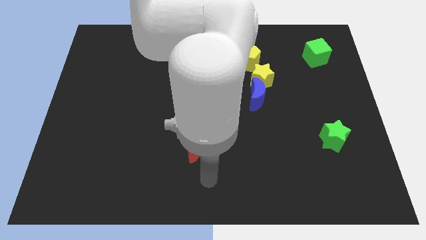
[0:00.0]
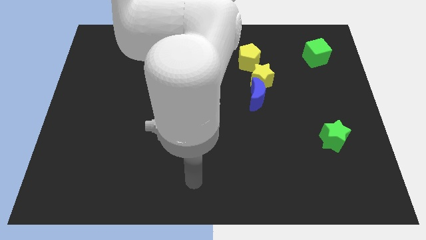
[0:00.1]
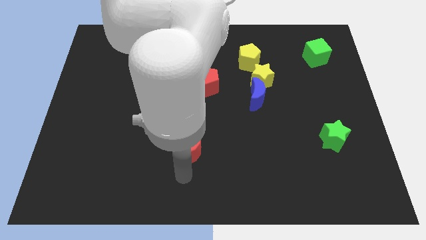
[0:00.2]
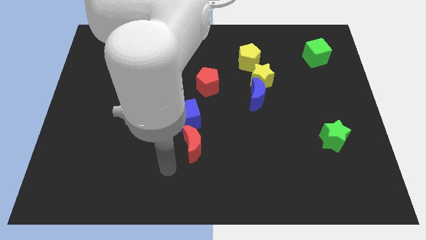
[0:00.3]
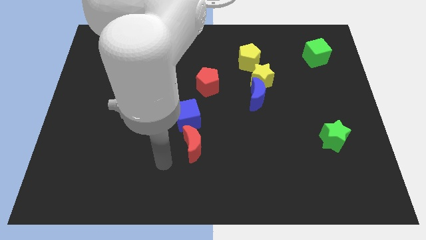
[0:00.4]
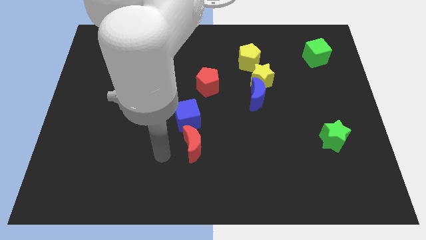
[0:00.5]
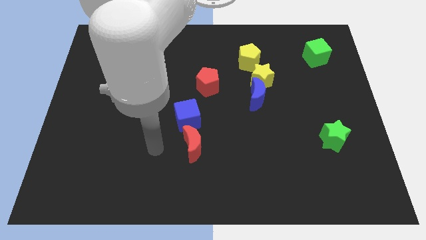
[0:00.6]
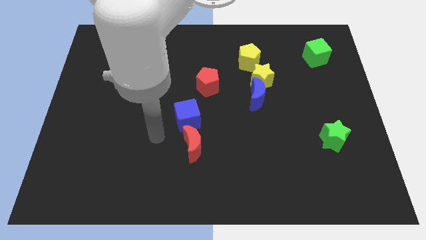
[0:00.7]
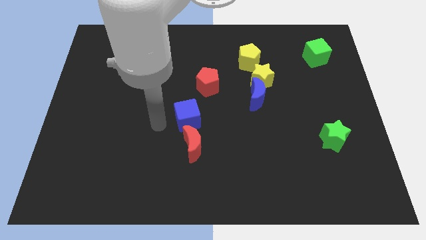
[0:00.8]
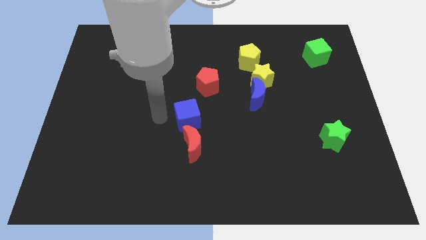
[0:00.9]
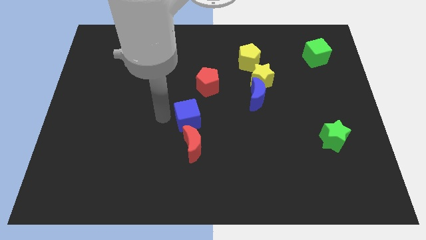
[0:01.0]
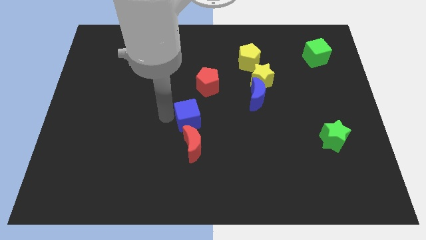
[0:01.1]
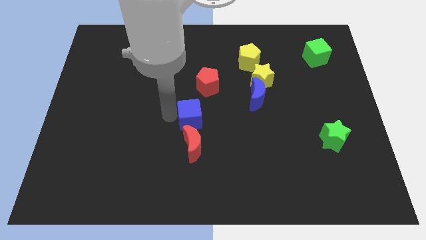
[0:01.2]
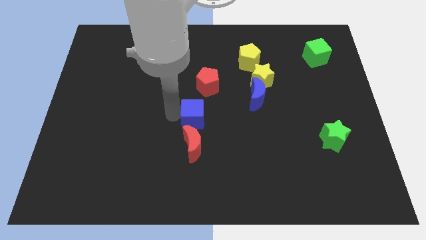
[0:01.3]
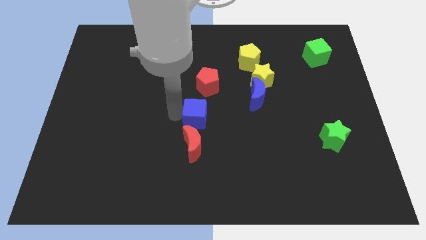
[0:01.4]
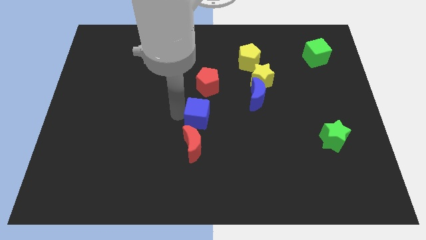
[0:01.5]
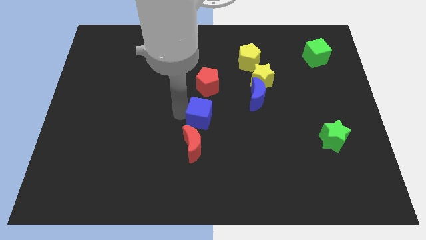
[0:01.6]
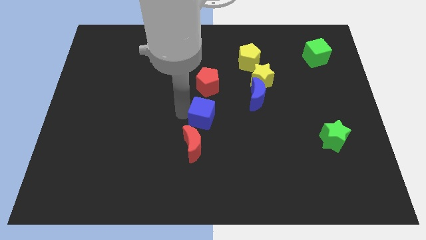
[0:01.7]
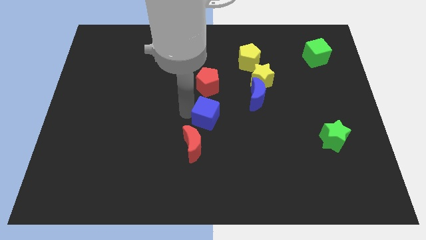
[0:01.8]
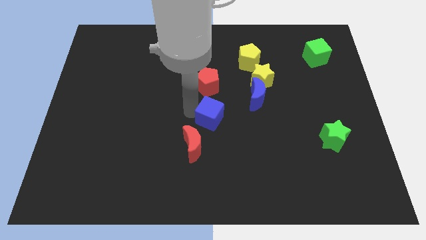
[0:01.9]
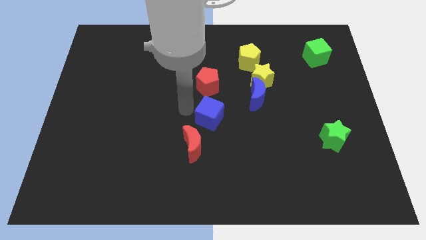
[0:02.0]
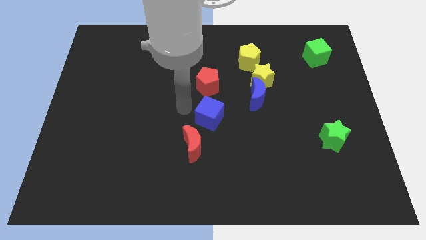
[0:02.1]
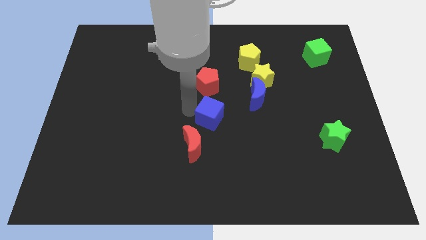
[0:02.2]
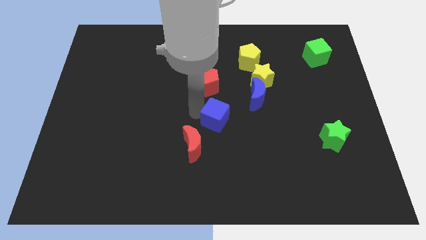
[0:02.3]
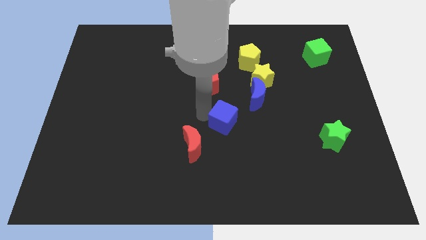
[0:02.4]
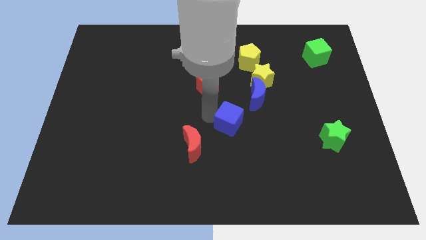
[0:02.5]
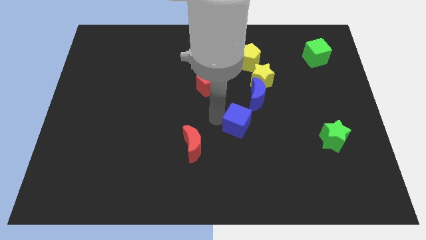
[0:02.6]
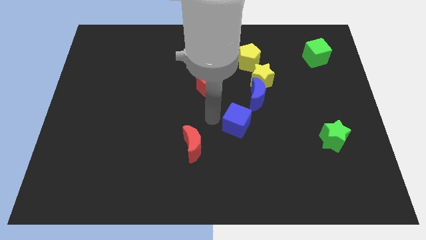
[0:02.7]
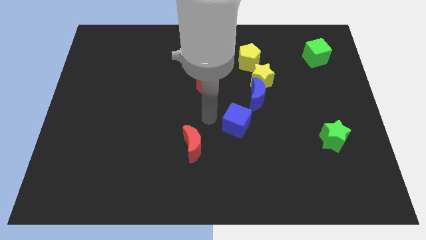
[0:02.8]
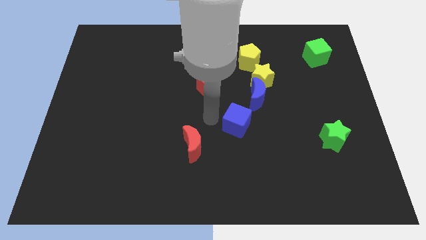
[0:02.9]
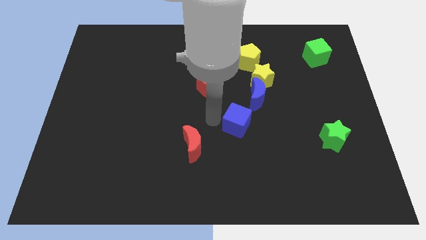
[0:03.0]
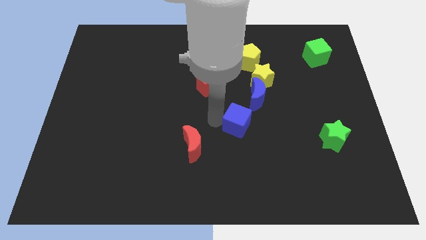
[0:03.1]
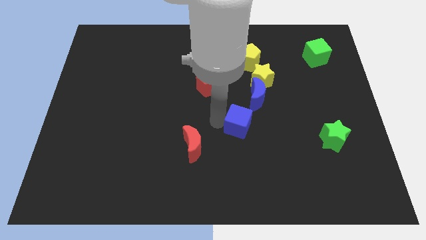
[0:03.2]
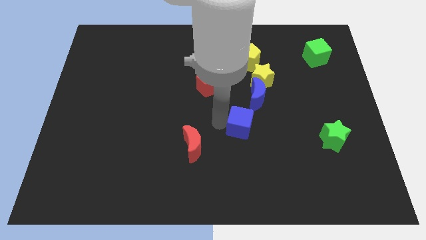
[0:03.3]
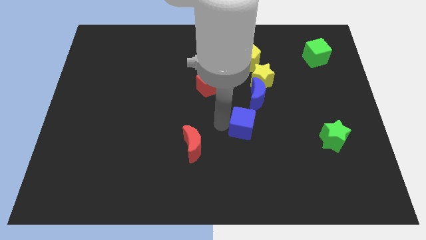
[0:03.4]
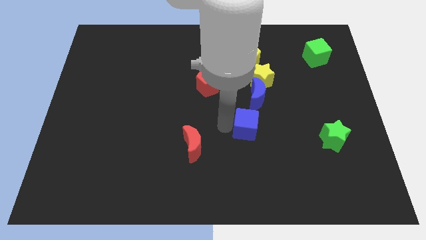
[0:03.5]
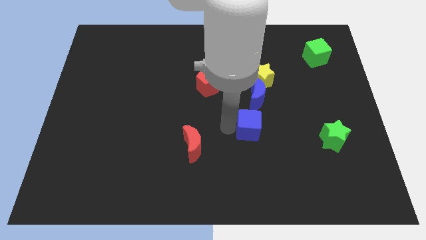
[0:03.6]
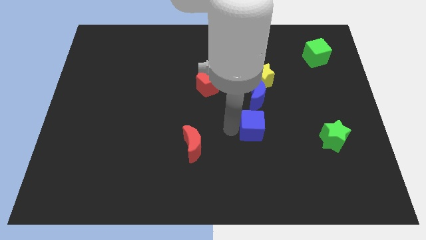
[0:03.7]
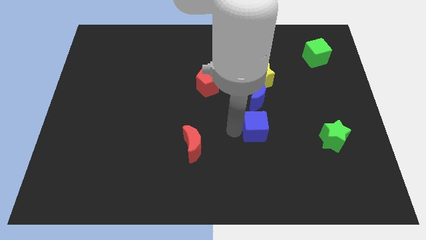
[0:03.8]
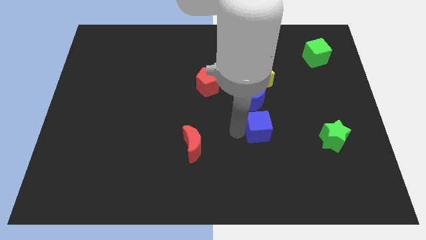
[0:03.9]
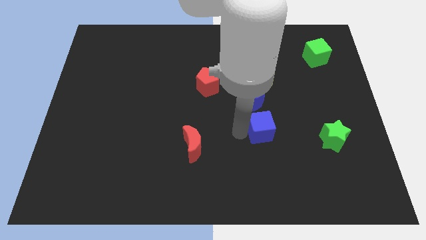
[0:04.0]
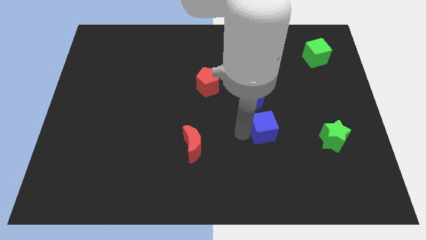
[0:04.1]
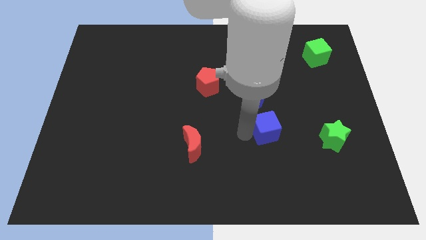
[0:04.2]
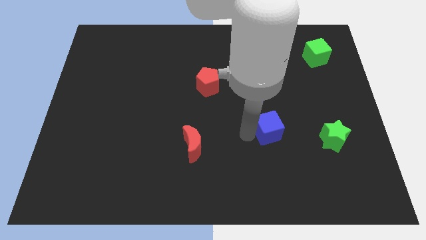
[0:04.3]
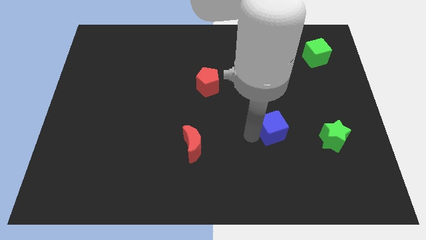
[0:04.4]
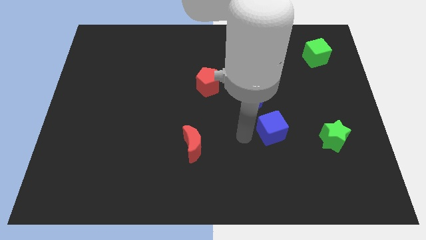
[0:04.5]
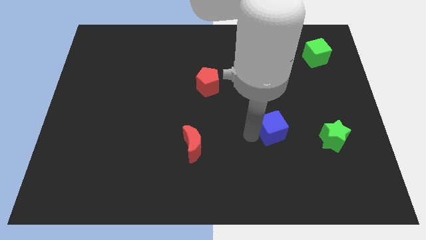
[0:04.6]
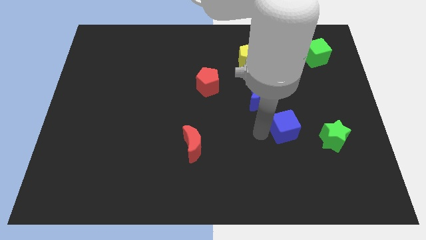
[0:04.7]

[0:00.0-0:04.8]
push the blue cube right

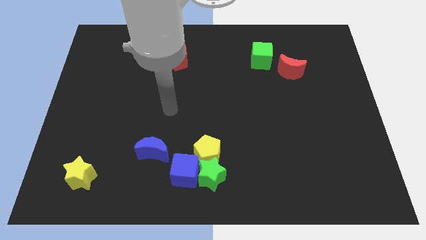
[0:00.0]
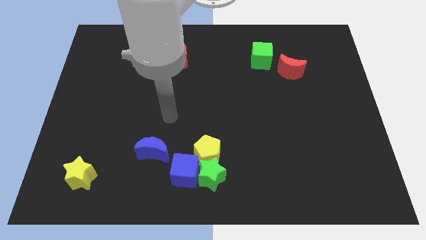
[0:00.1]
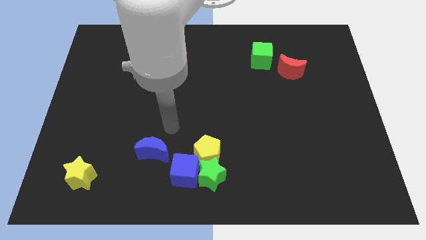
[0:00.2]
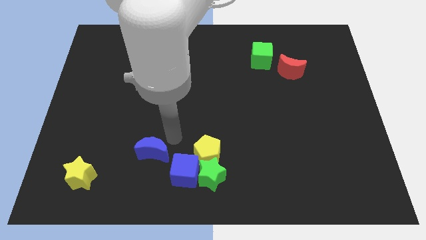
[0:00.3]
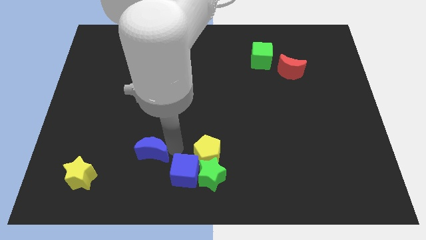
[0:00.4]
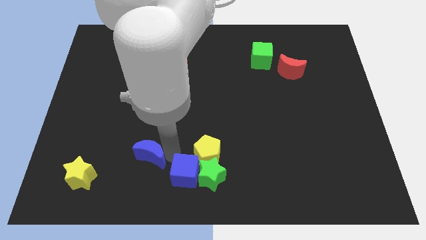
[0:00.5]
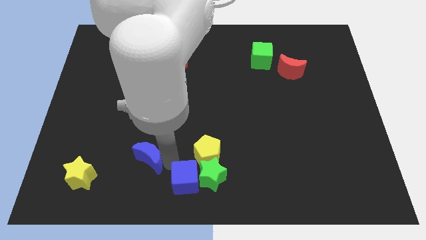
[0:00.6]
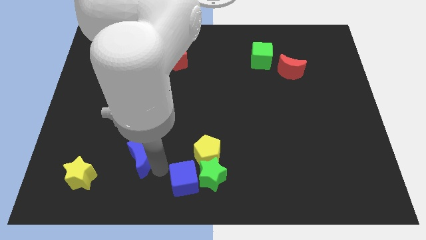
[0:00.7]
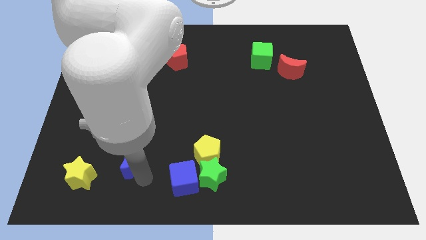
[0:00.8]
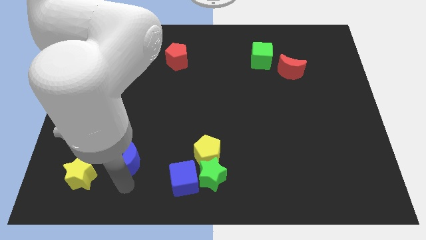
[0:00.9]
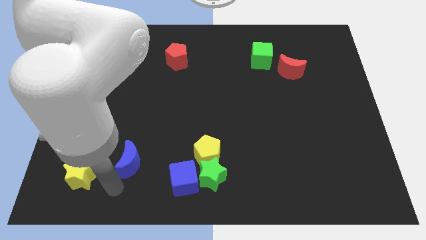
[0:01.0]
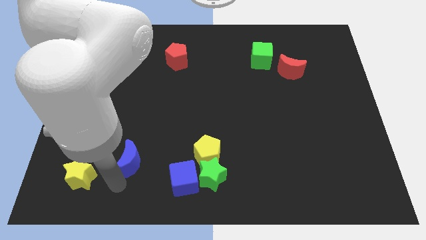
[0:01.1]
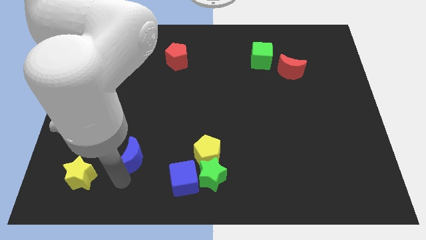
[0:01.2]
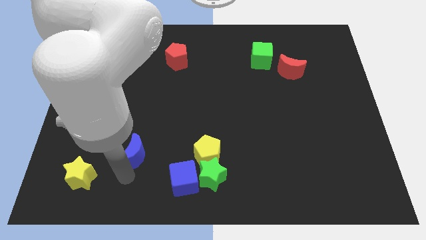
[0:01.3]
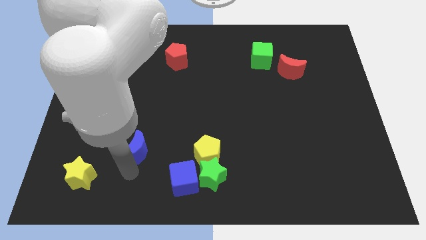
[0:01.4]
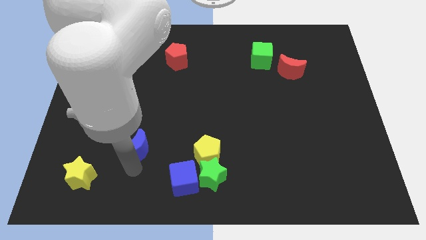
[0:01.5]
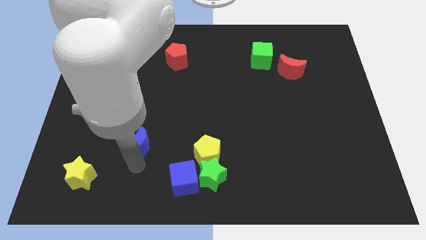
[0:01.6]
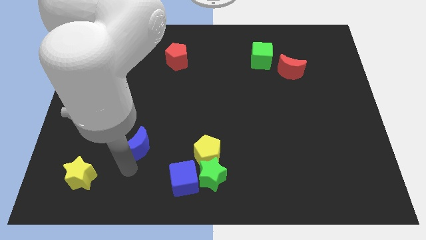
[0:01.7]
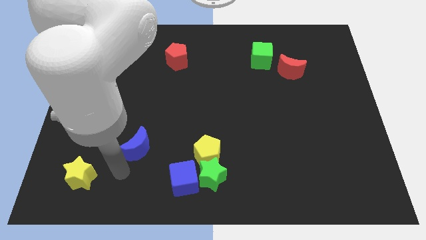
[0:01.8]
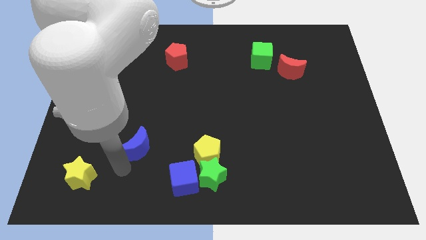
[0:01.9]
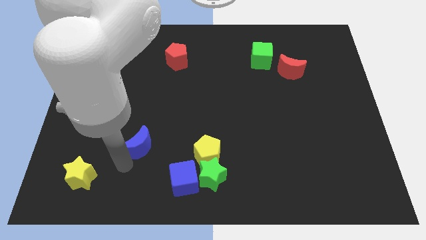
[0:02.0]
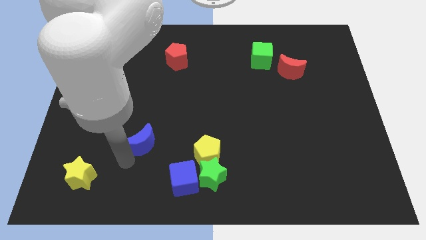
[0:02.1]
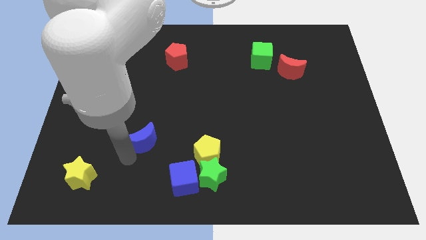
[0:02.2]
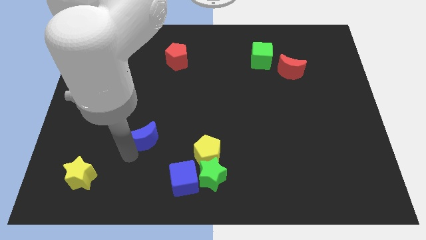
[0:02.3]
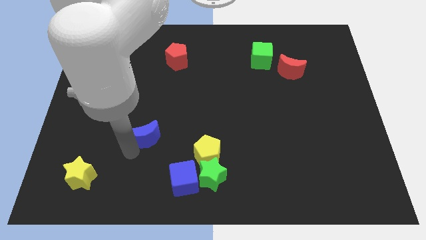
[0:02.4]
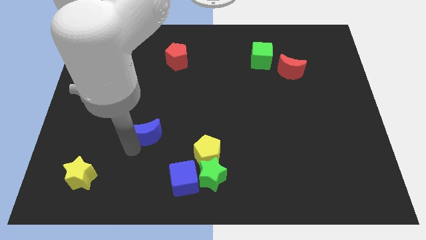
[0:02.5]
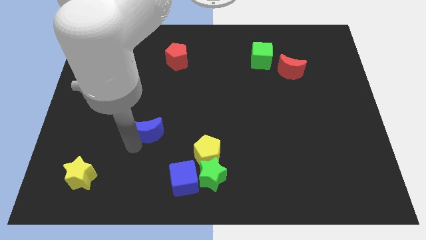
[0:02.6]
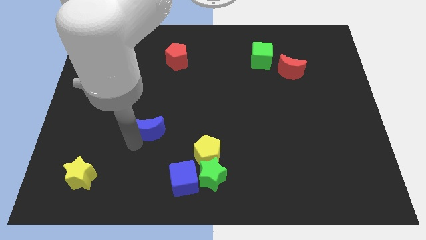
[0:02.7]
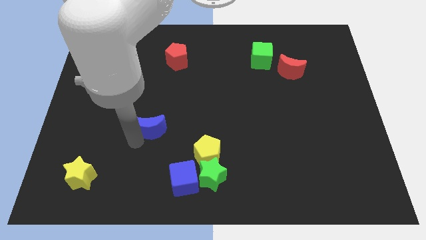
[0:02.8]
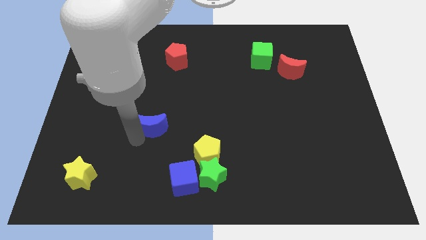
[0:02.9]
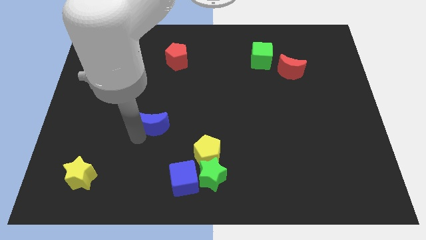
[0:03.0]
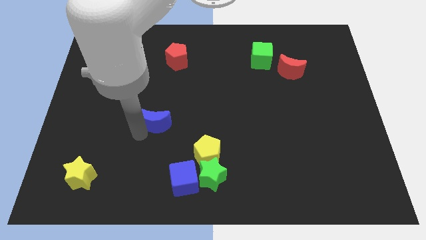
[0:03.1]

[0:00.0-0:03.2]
slightly push the blue moon upwards

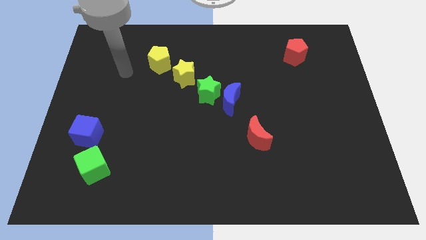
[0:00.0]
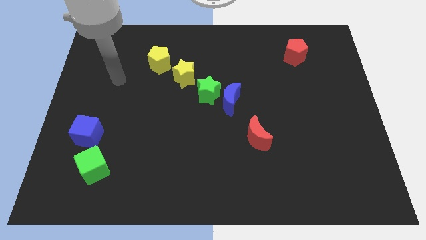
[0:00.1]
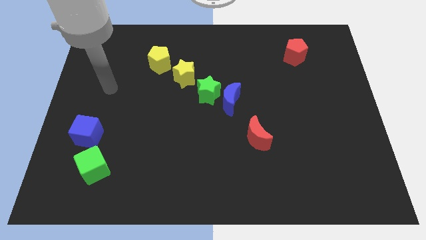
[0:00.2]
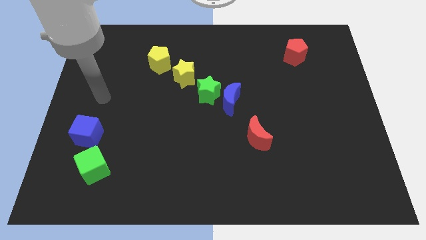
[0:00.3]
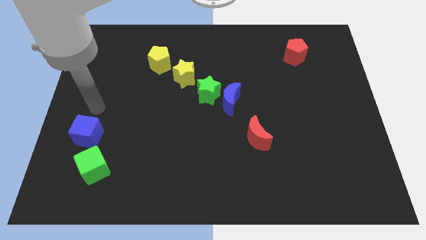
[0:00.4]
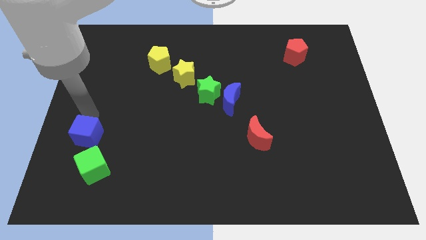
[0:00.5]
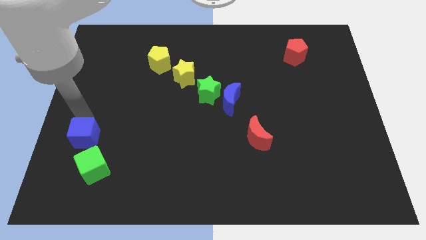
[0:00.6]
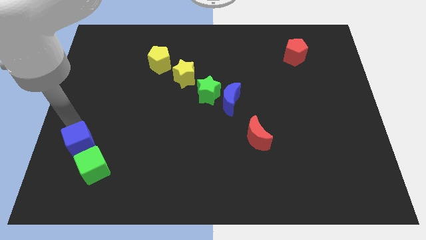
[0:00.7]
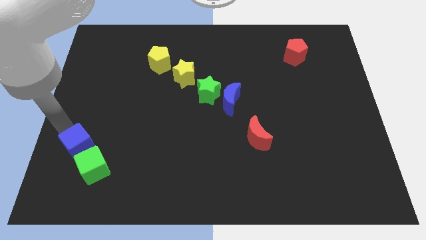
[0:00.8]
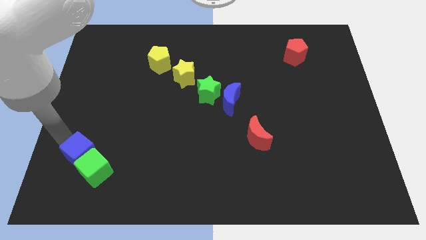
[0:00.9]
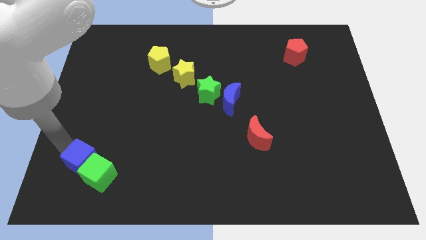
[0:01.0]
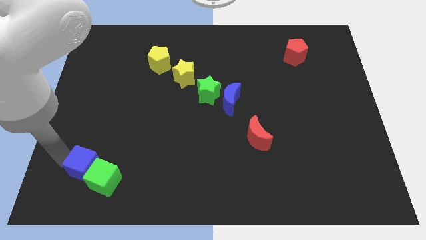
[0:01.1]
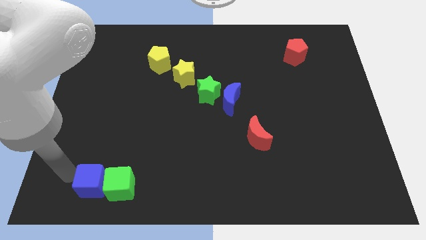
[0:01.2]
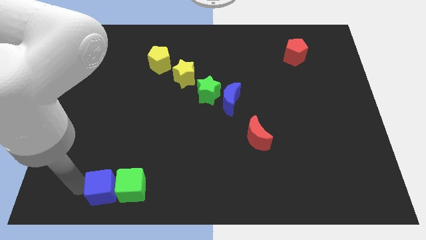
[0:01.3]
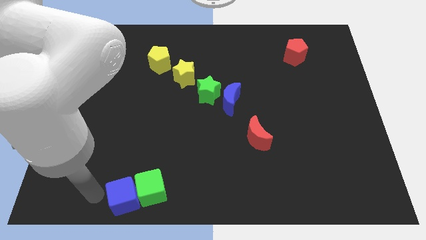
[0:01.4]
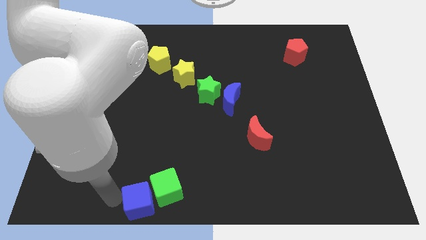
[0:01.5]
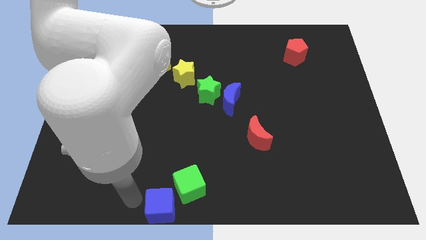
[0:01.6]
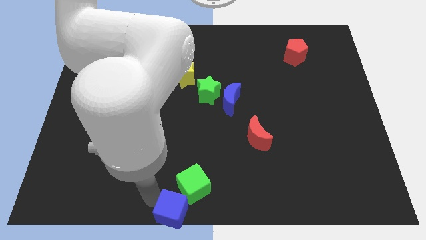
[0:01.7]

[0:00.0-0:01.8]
push the green cube to the right
